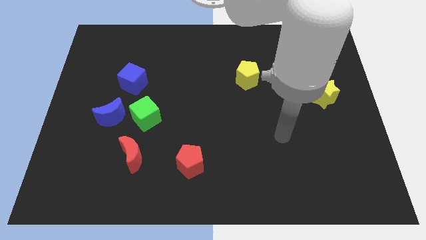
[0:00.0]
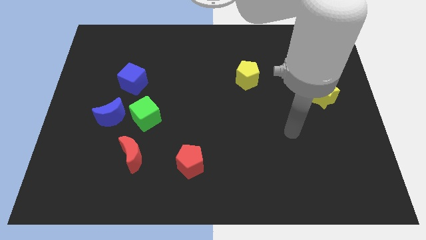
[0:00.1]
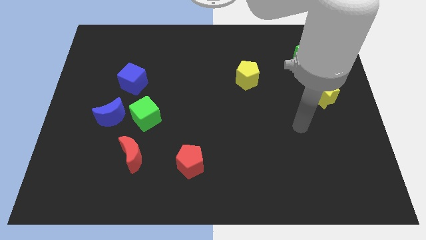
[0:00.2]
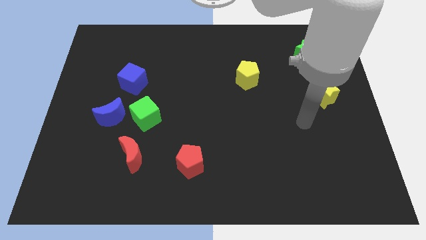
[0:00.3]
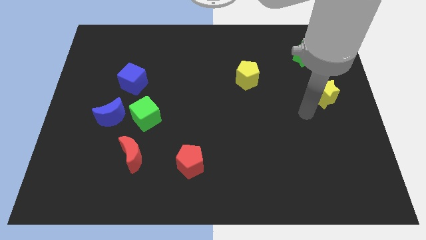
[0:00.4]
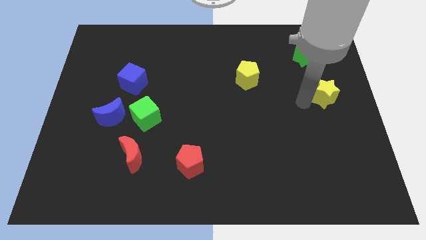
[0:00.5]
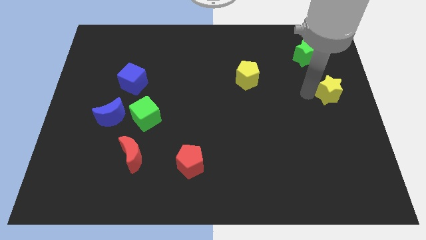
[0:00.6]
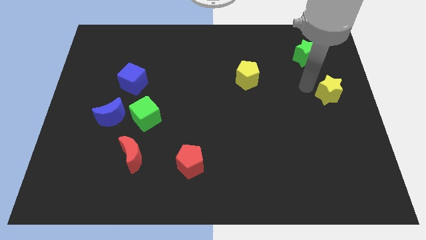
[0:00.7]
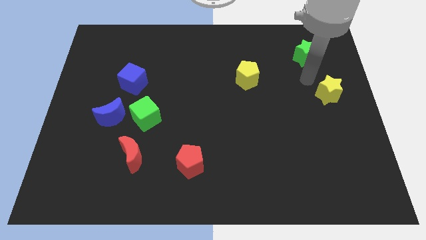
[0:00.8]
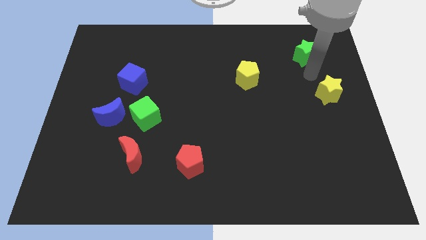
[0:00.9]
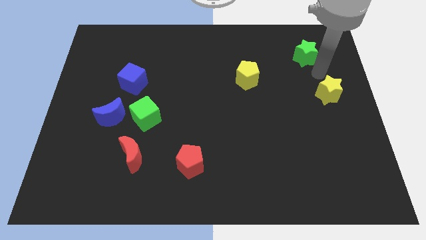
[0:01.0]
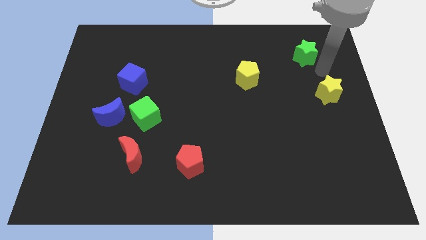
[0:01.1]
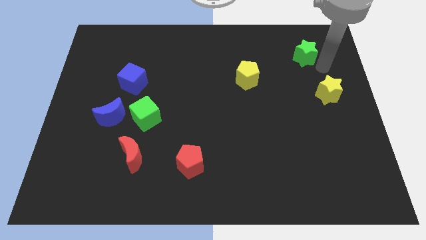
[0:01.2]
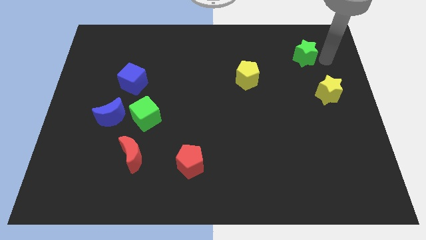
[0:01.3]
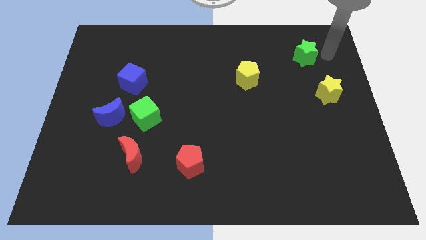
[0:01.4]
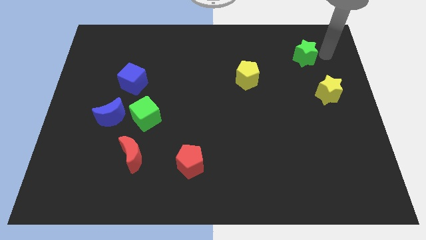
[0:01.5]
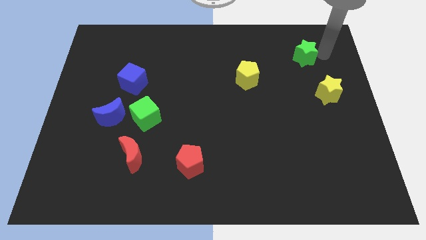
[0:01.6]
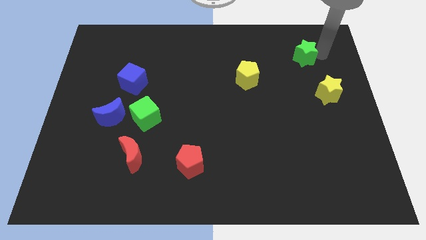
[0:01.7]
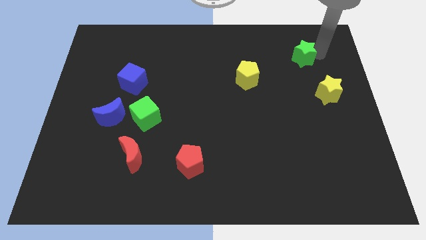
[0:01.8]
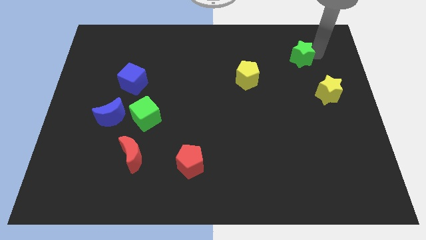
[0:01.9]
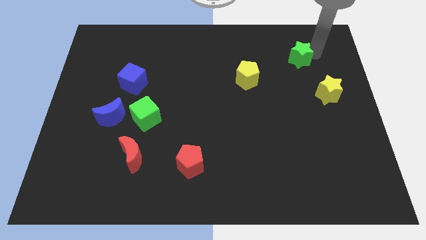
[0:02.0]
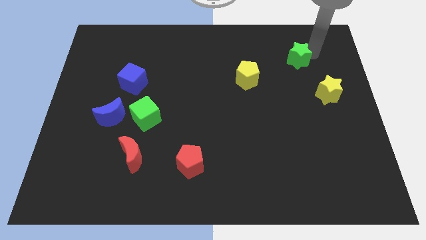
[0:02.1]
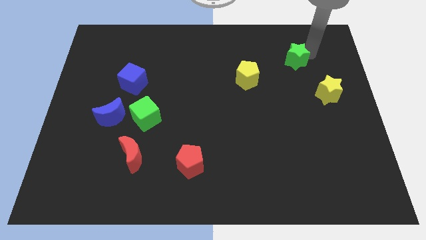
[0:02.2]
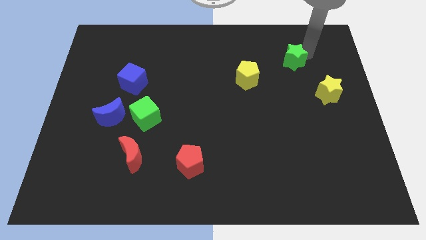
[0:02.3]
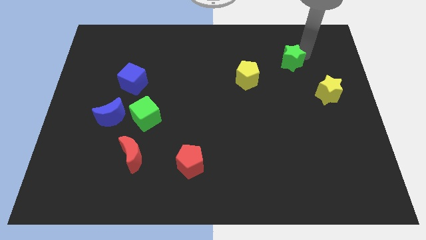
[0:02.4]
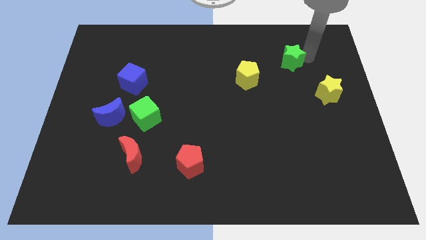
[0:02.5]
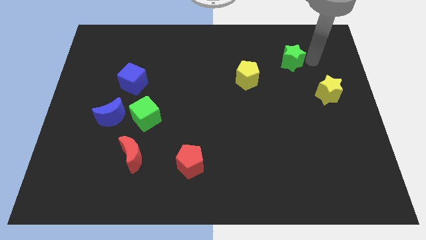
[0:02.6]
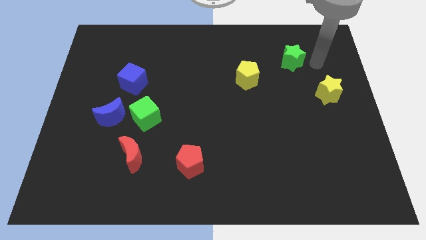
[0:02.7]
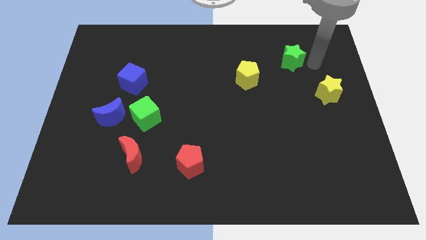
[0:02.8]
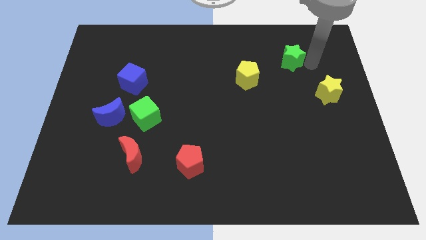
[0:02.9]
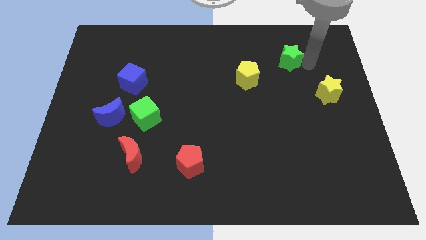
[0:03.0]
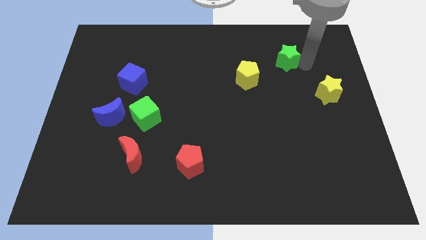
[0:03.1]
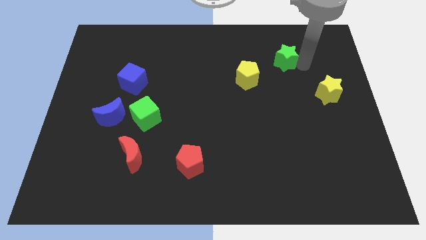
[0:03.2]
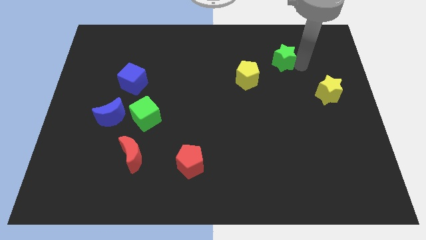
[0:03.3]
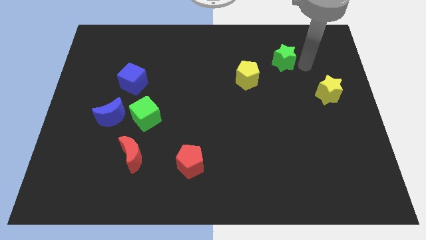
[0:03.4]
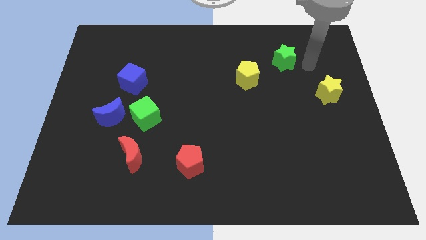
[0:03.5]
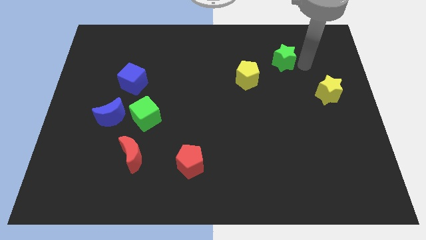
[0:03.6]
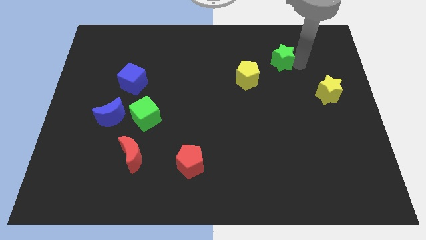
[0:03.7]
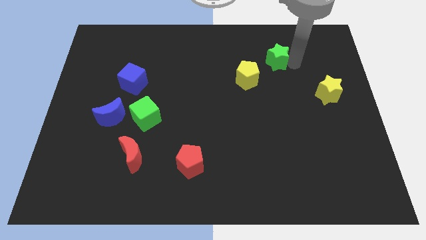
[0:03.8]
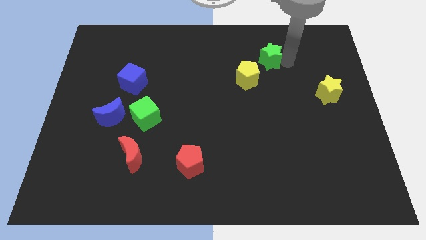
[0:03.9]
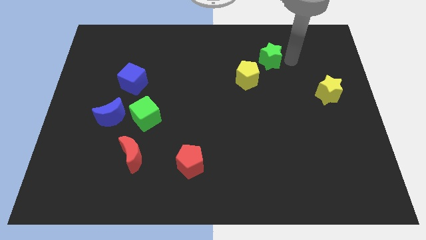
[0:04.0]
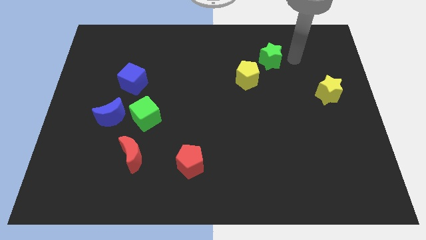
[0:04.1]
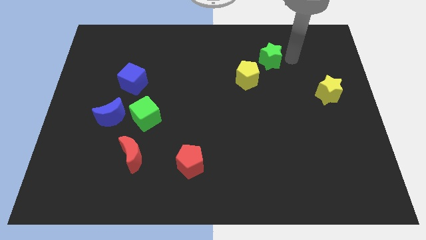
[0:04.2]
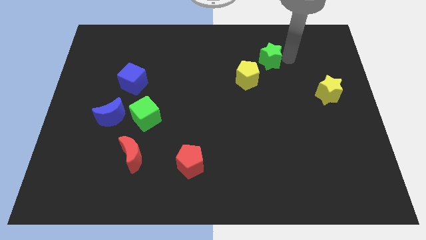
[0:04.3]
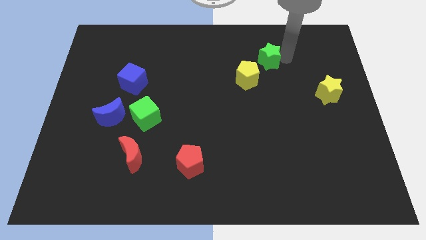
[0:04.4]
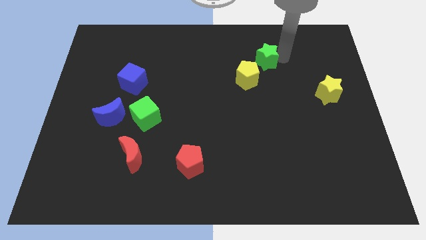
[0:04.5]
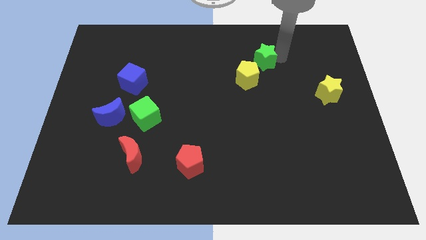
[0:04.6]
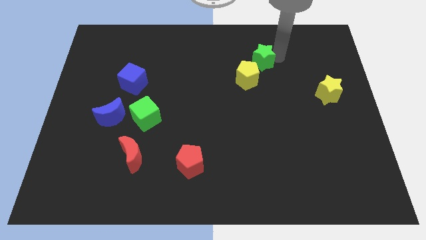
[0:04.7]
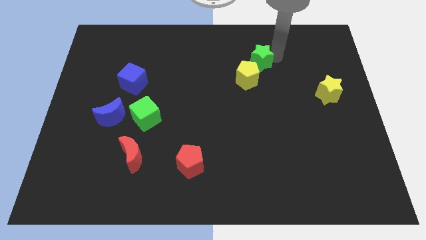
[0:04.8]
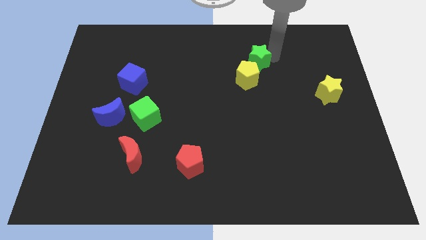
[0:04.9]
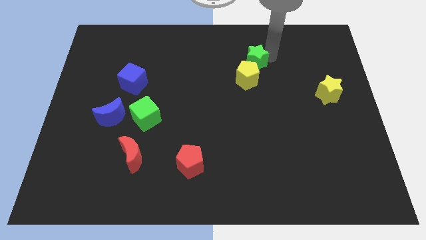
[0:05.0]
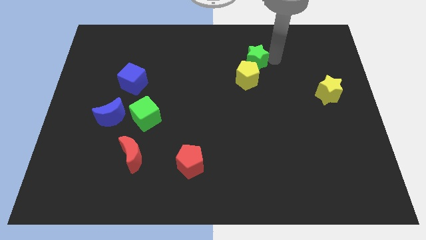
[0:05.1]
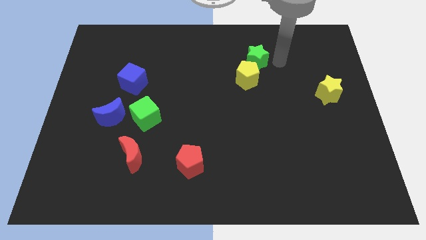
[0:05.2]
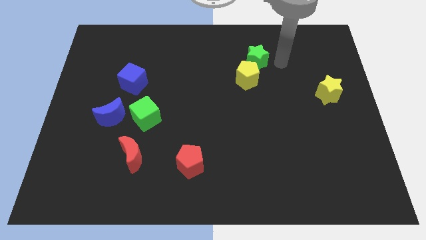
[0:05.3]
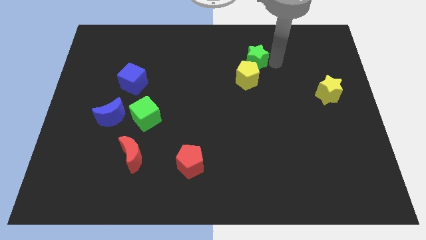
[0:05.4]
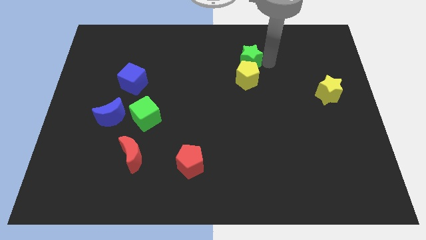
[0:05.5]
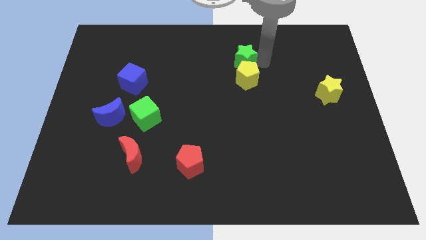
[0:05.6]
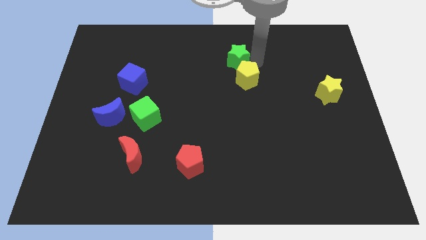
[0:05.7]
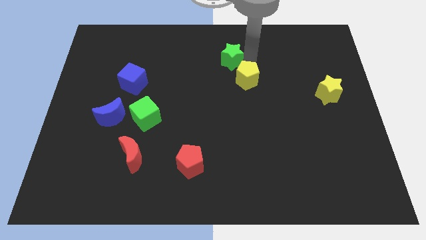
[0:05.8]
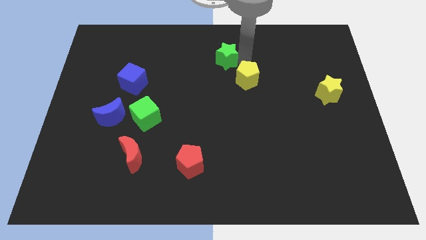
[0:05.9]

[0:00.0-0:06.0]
push the green star left

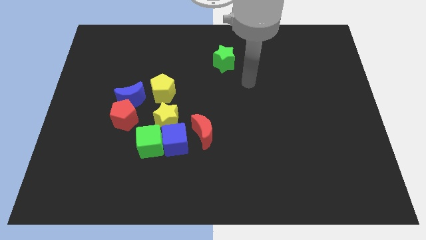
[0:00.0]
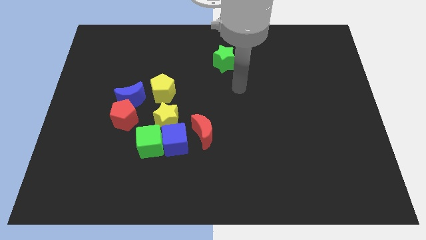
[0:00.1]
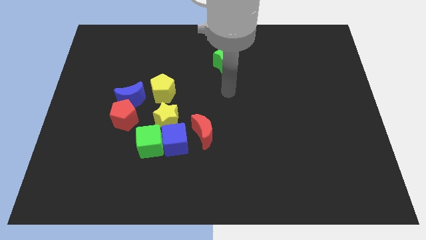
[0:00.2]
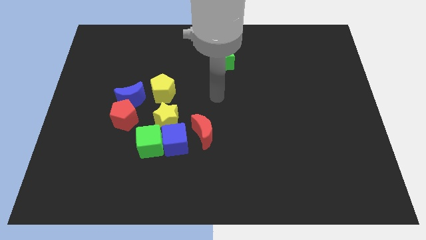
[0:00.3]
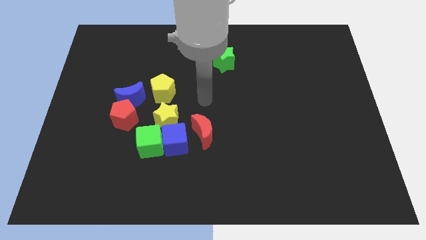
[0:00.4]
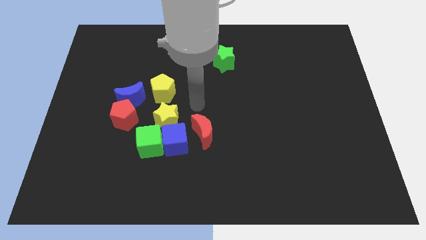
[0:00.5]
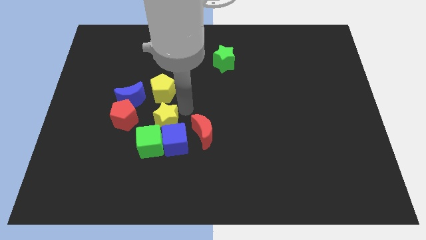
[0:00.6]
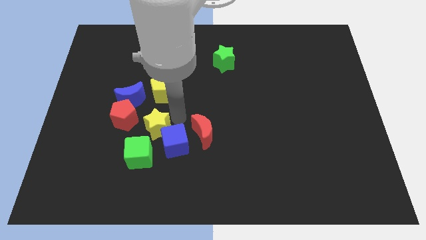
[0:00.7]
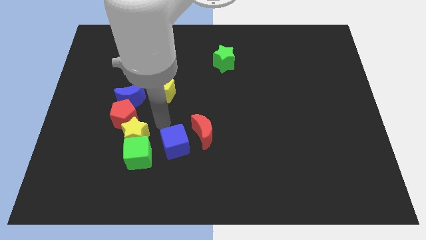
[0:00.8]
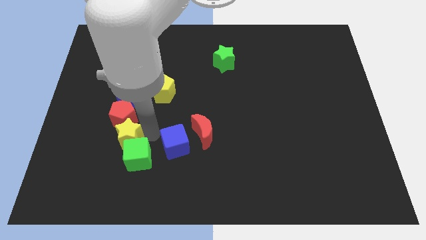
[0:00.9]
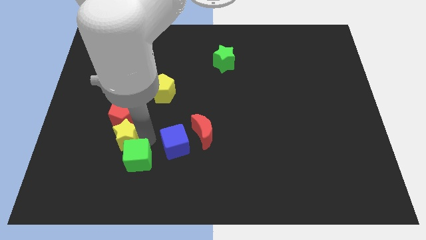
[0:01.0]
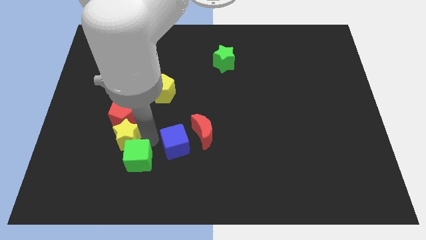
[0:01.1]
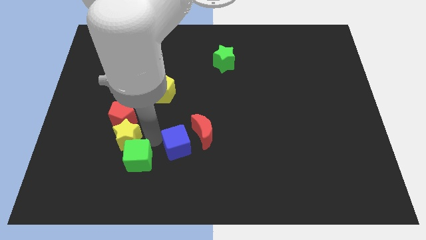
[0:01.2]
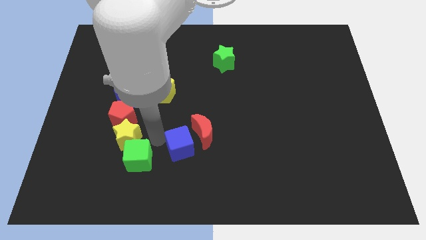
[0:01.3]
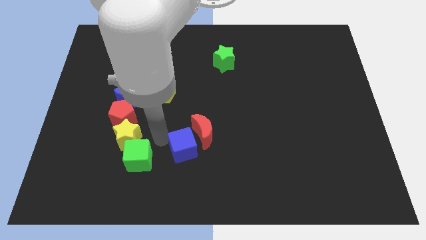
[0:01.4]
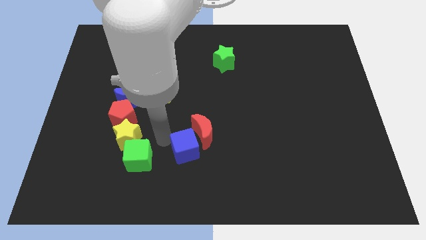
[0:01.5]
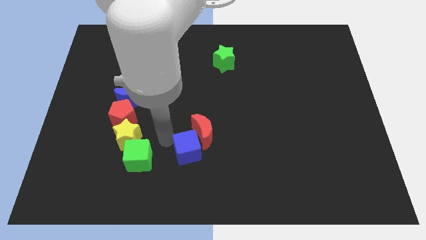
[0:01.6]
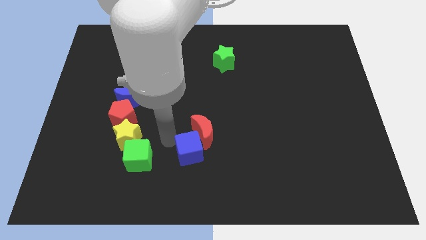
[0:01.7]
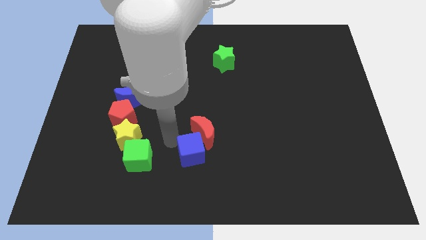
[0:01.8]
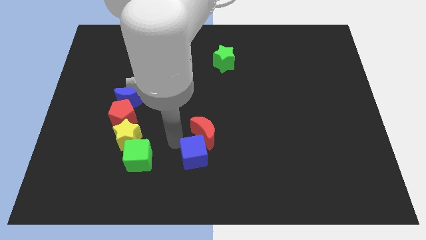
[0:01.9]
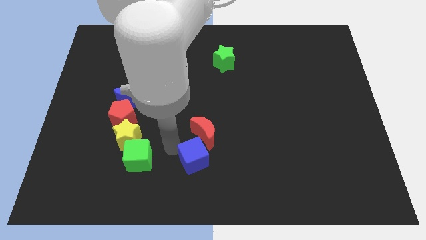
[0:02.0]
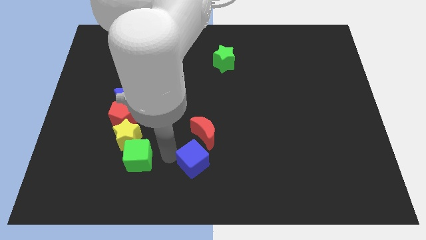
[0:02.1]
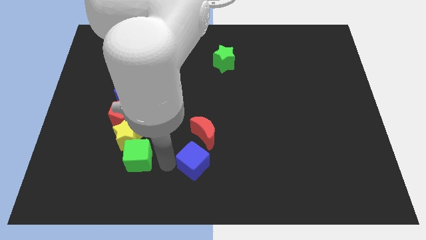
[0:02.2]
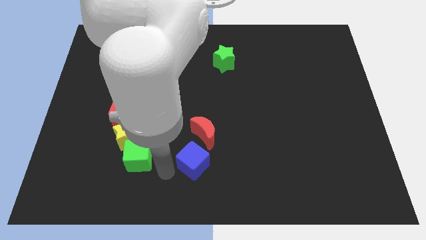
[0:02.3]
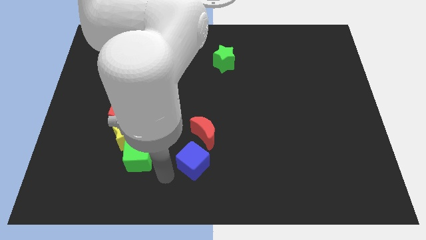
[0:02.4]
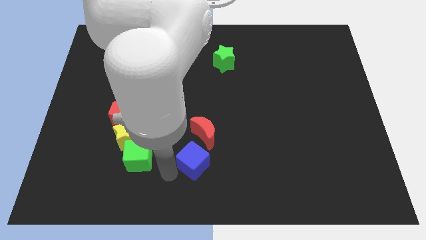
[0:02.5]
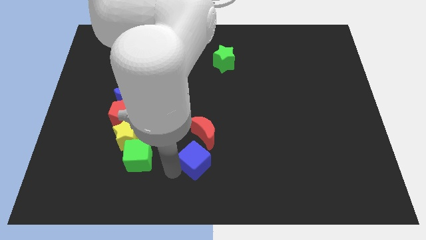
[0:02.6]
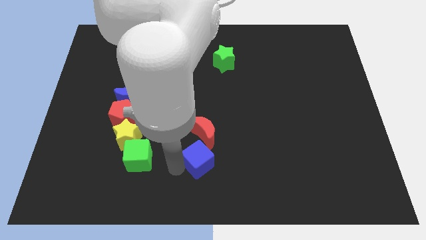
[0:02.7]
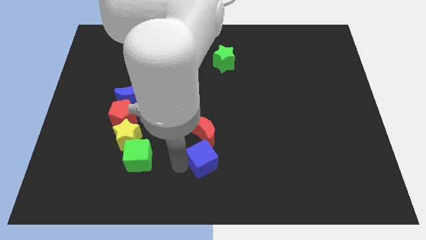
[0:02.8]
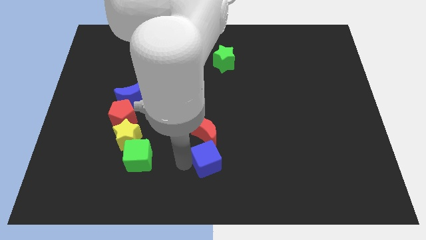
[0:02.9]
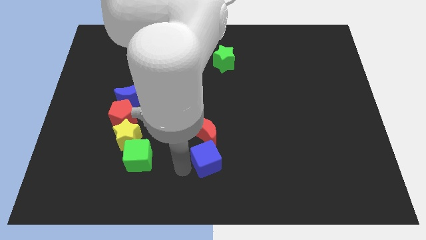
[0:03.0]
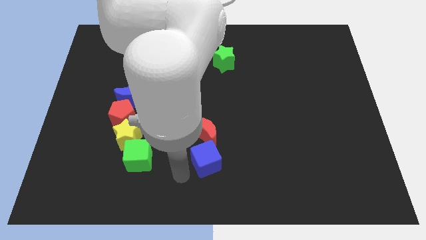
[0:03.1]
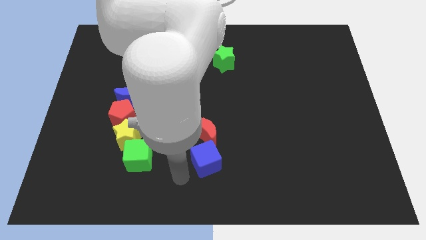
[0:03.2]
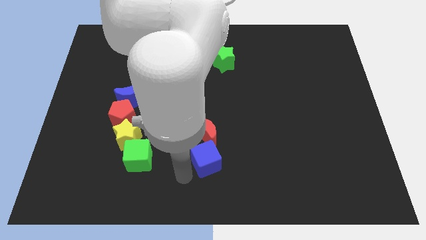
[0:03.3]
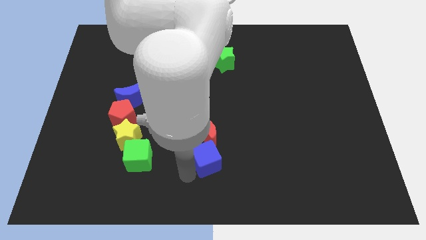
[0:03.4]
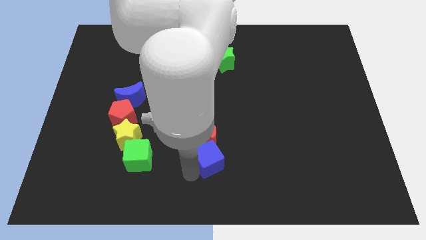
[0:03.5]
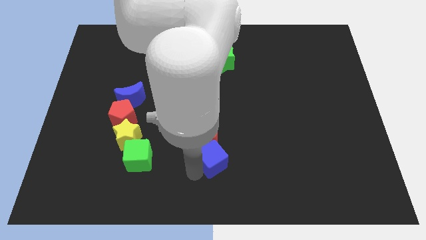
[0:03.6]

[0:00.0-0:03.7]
slightly move the blue cube to the right
